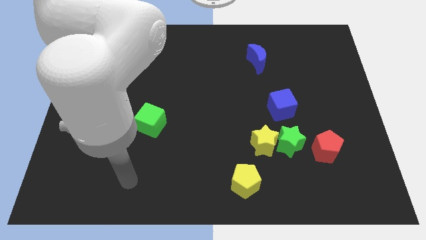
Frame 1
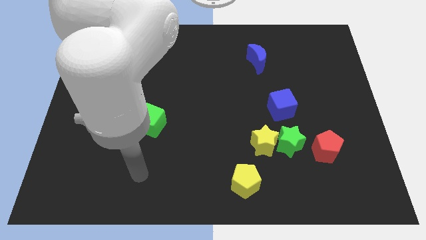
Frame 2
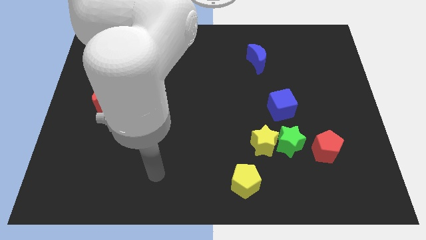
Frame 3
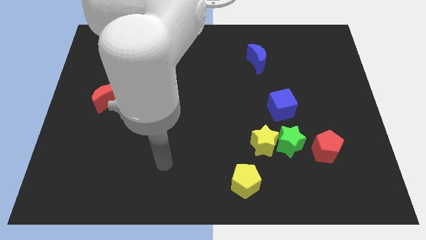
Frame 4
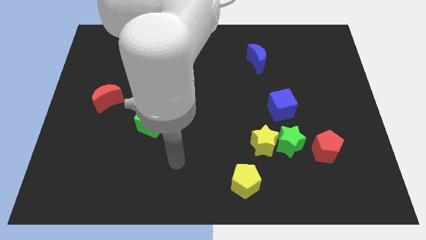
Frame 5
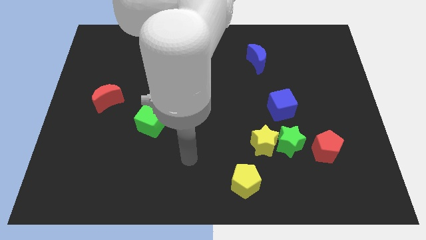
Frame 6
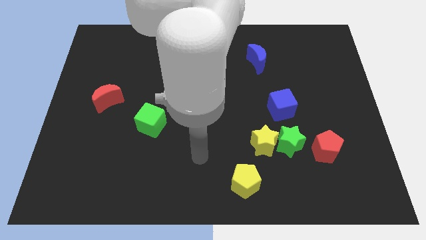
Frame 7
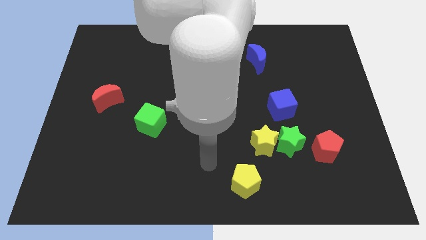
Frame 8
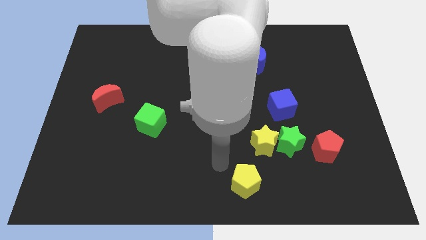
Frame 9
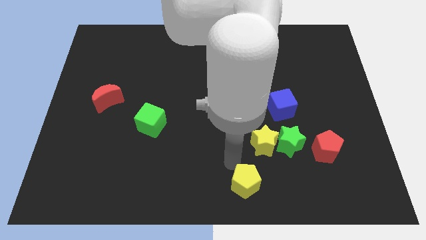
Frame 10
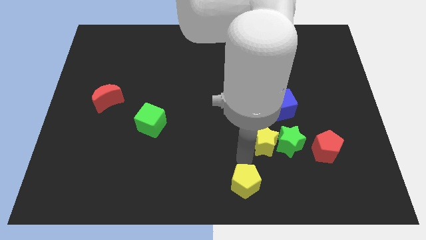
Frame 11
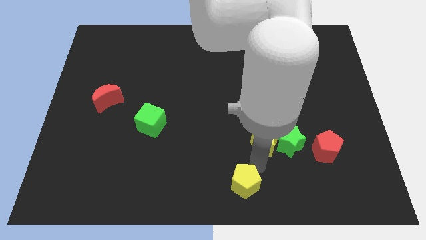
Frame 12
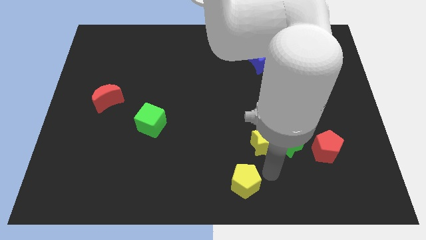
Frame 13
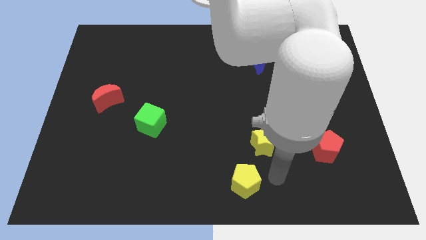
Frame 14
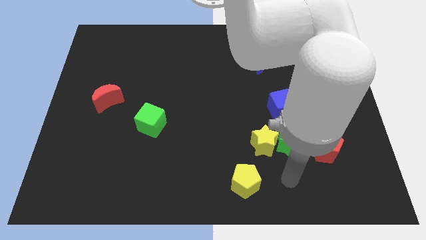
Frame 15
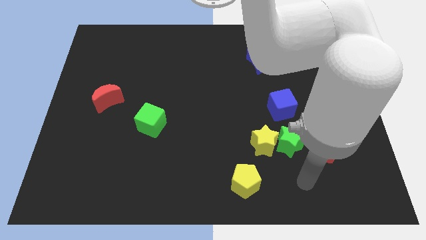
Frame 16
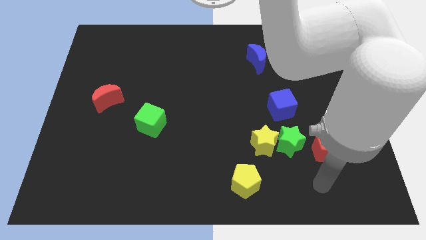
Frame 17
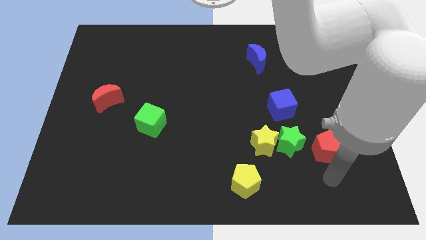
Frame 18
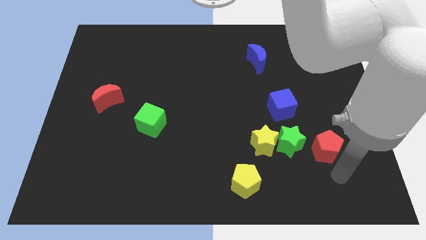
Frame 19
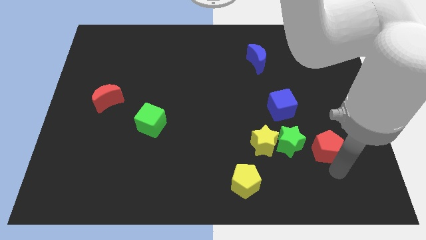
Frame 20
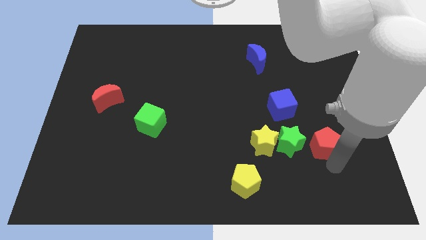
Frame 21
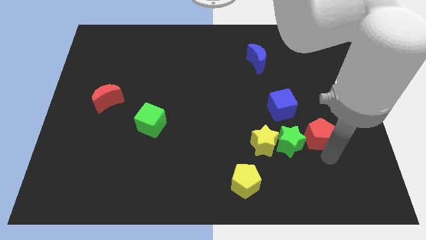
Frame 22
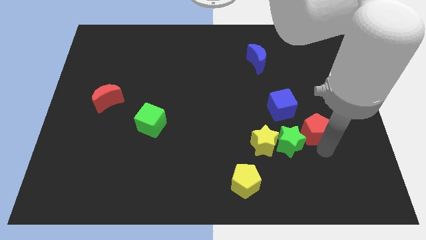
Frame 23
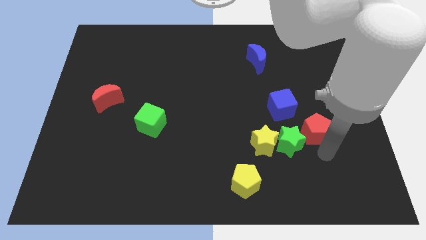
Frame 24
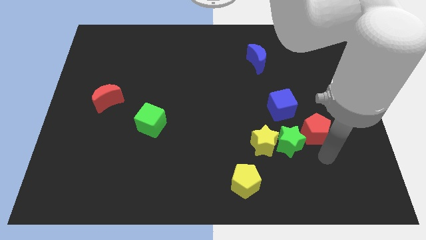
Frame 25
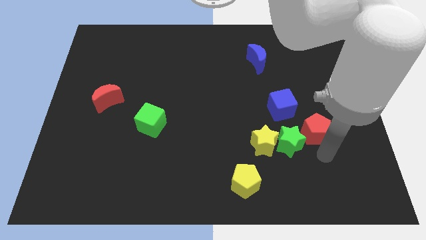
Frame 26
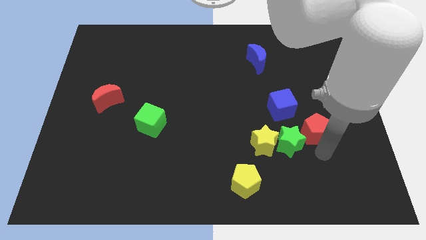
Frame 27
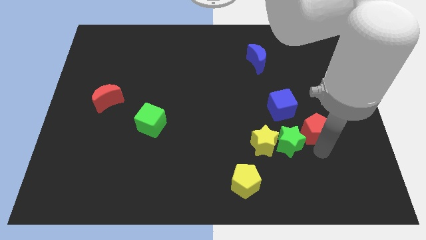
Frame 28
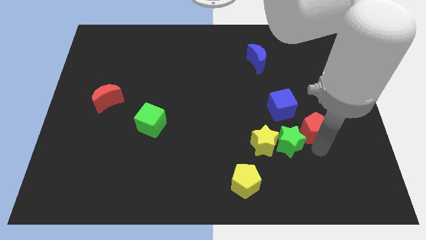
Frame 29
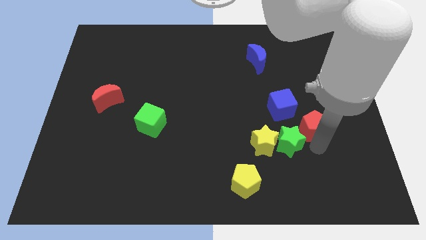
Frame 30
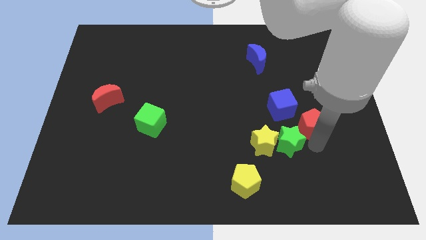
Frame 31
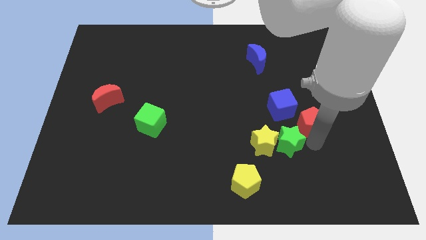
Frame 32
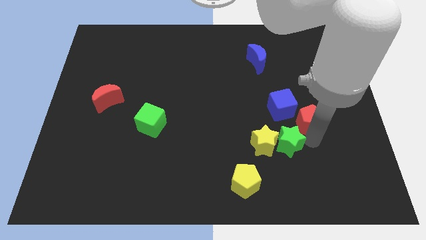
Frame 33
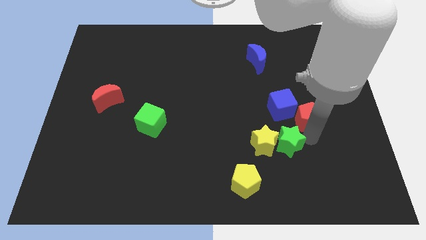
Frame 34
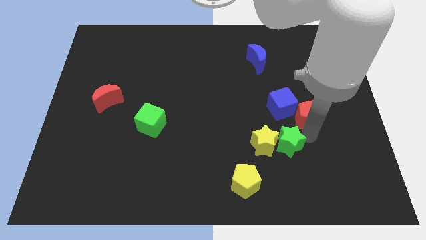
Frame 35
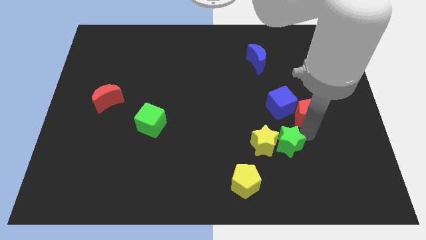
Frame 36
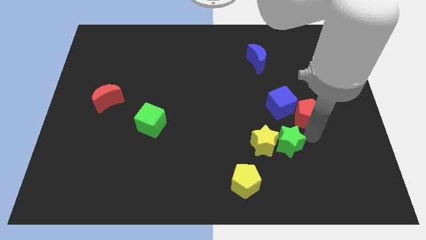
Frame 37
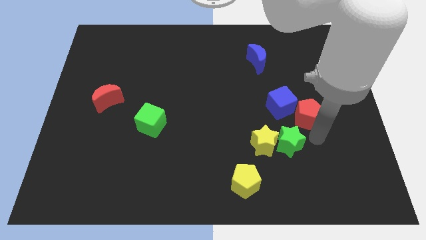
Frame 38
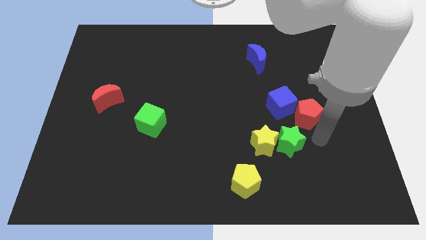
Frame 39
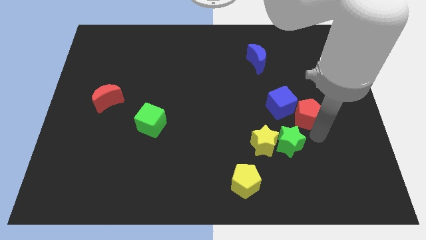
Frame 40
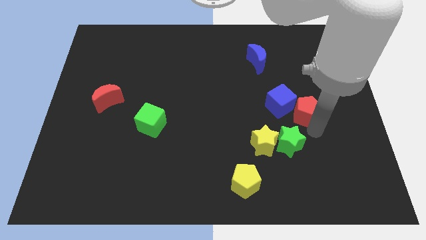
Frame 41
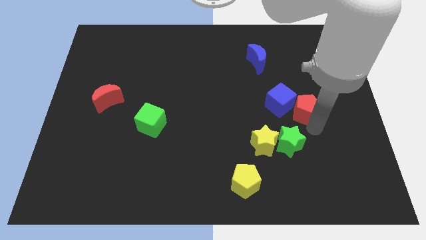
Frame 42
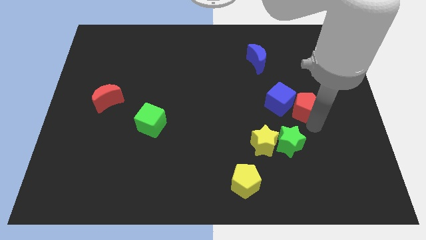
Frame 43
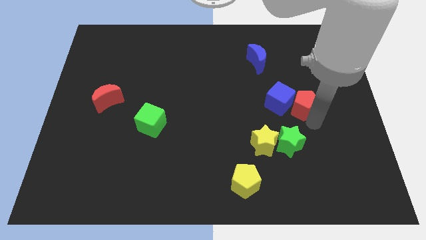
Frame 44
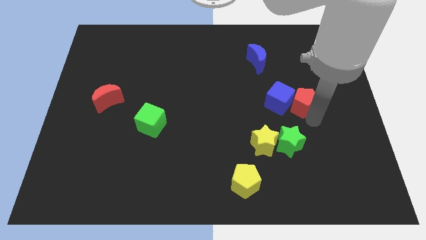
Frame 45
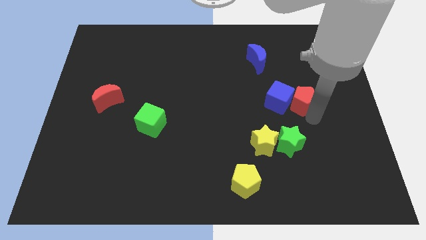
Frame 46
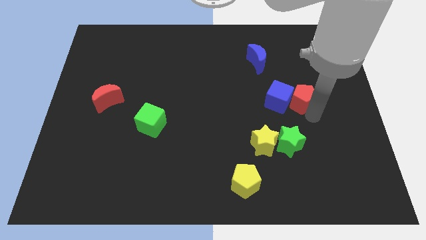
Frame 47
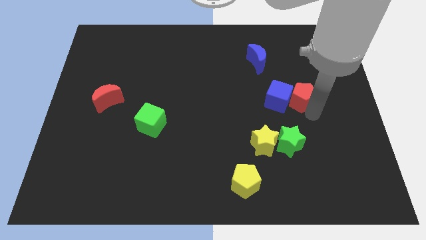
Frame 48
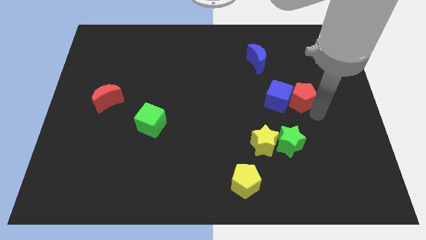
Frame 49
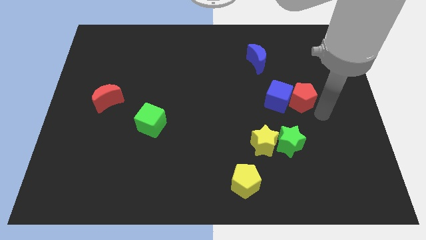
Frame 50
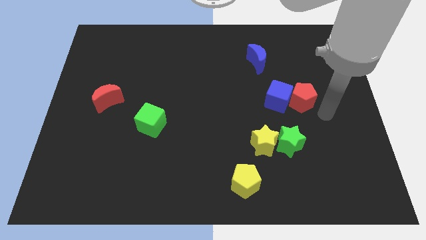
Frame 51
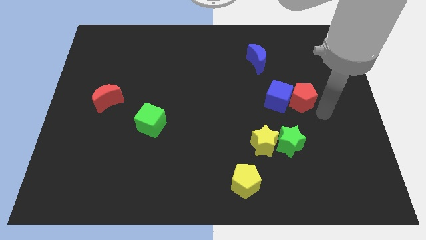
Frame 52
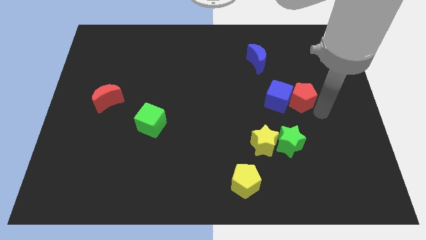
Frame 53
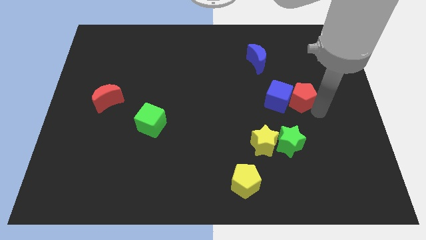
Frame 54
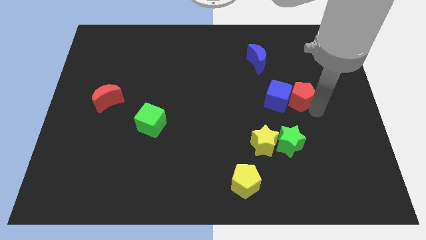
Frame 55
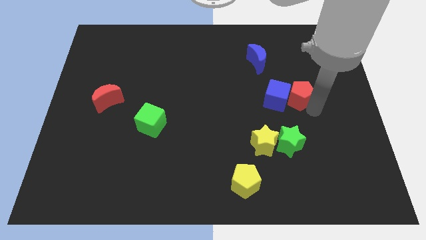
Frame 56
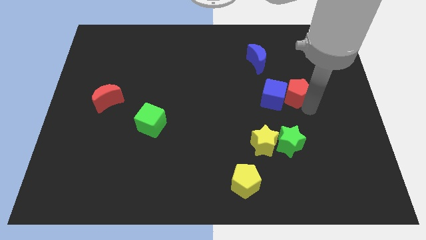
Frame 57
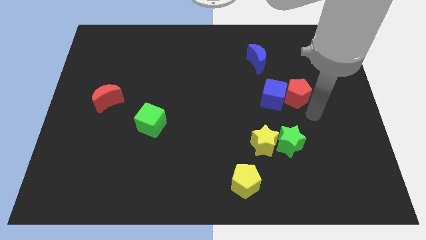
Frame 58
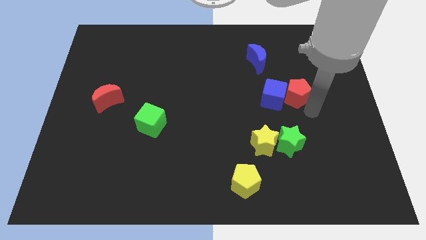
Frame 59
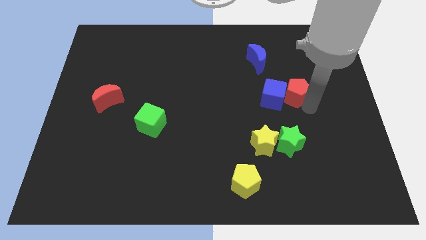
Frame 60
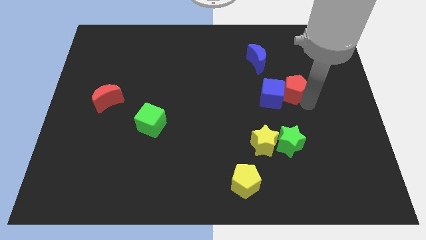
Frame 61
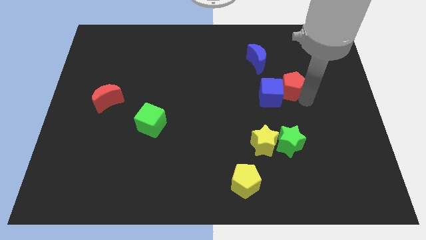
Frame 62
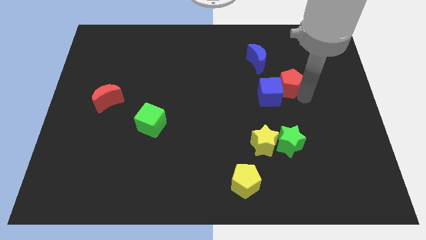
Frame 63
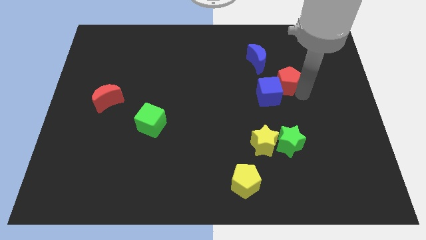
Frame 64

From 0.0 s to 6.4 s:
slide the red pentagon to the top of the blue cube

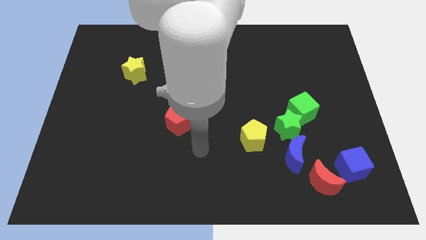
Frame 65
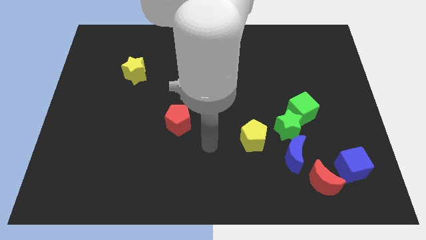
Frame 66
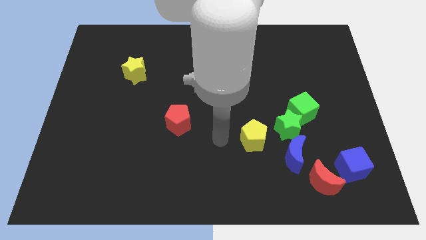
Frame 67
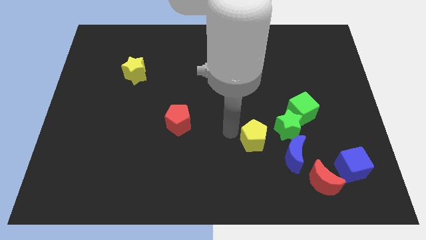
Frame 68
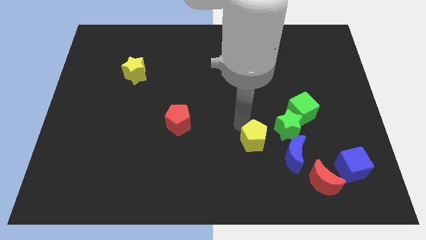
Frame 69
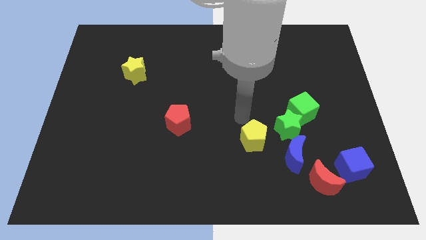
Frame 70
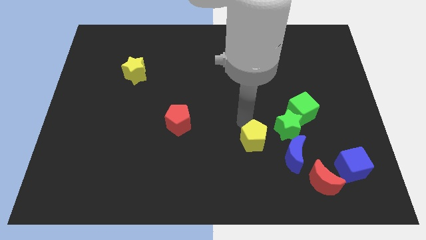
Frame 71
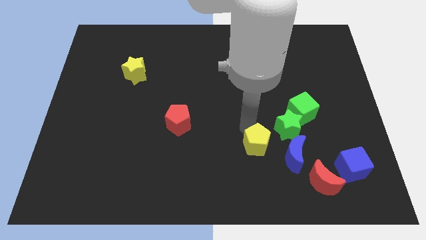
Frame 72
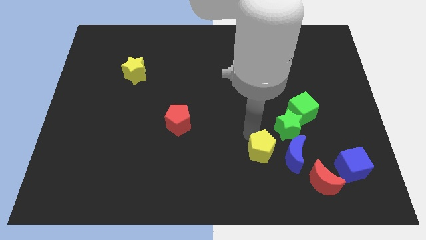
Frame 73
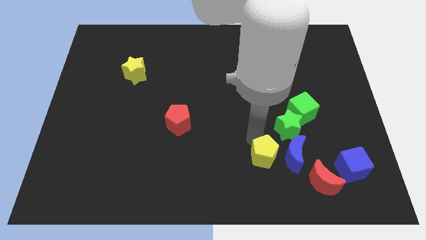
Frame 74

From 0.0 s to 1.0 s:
push the yellow pentagon diagonally down and to the left of the blue moon
